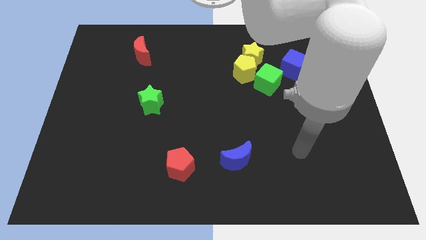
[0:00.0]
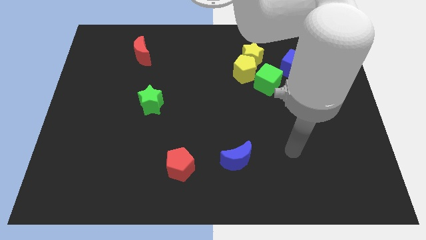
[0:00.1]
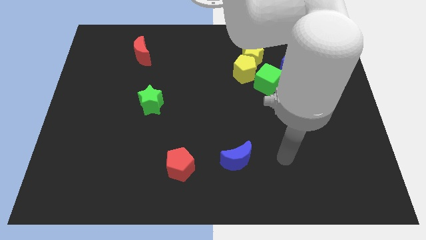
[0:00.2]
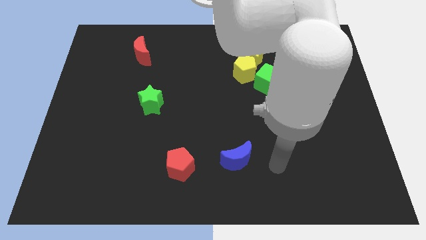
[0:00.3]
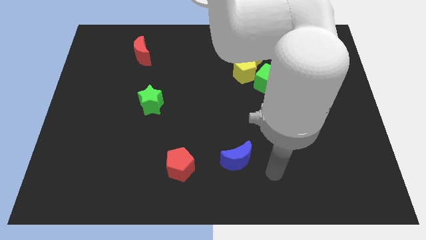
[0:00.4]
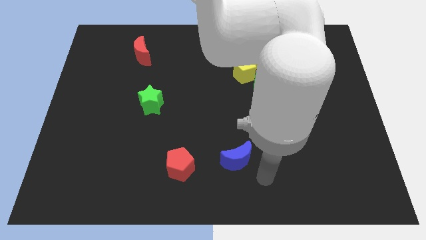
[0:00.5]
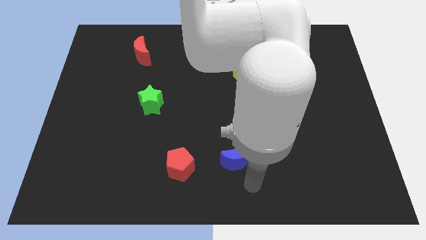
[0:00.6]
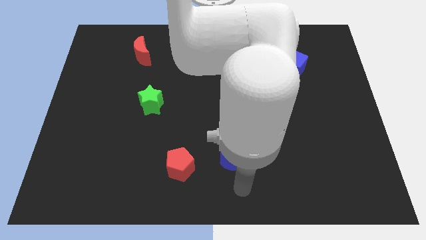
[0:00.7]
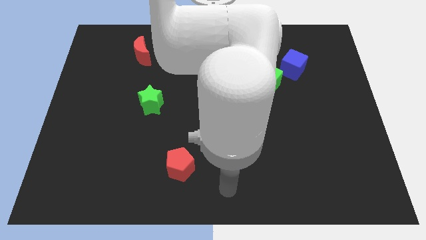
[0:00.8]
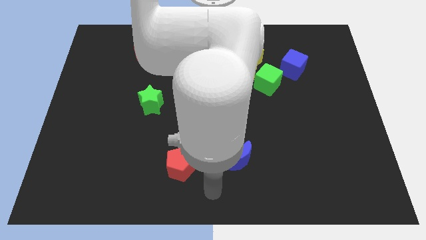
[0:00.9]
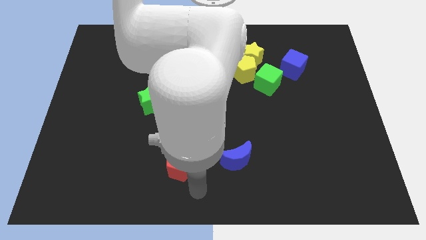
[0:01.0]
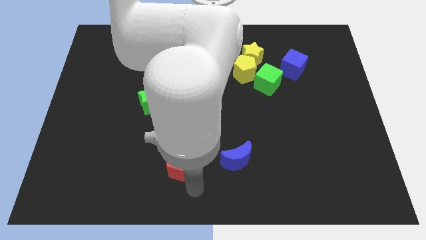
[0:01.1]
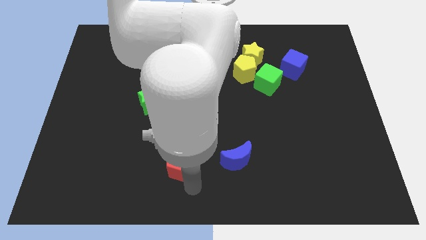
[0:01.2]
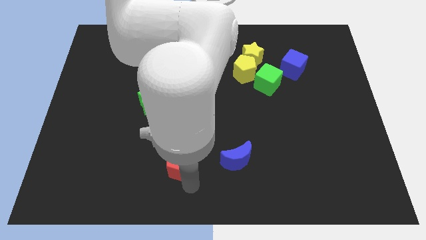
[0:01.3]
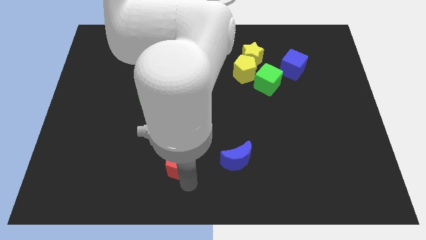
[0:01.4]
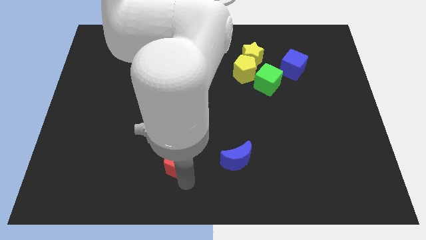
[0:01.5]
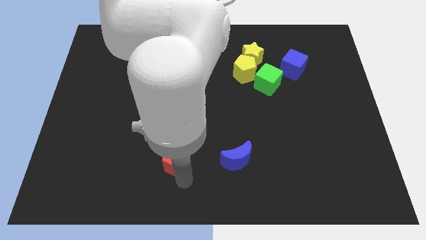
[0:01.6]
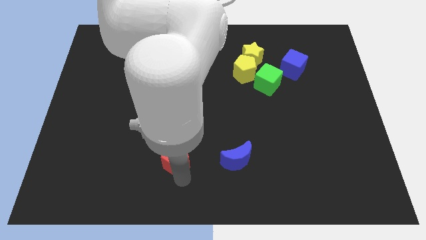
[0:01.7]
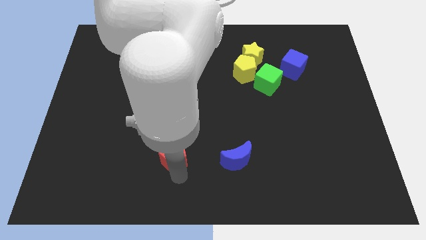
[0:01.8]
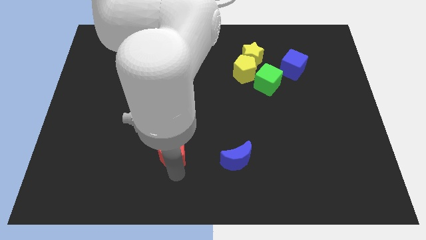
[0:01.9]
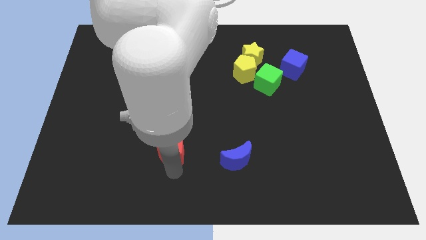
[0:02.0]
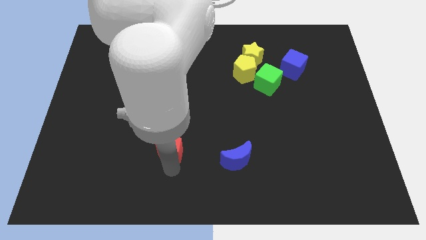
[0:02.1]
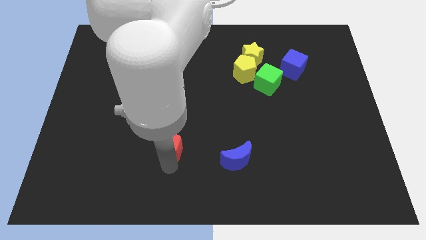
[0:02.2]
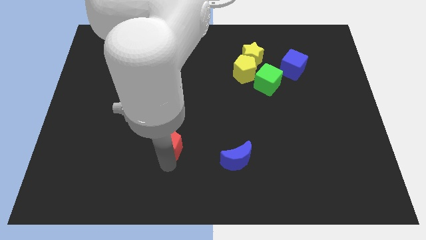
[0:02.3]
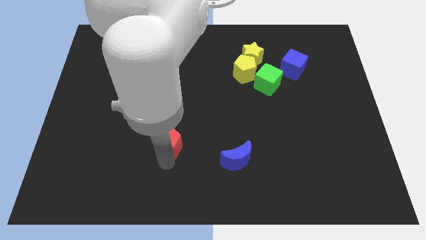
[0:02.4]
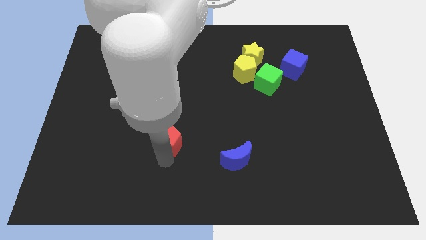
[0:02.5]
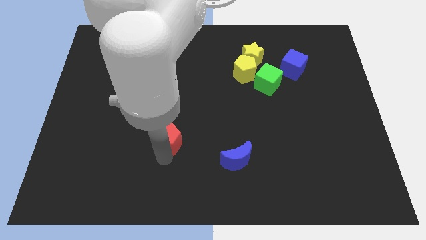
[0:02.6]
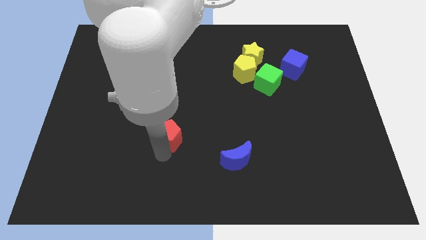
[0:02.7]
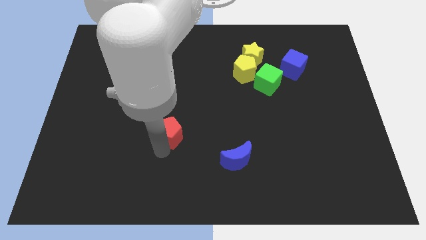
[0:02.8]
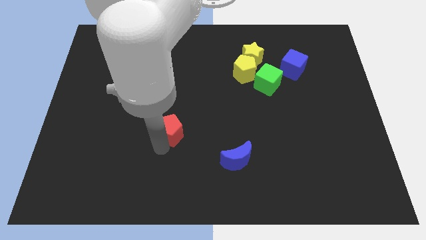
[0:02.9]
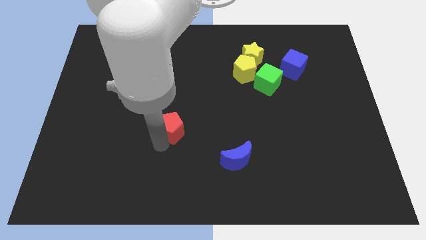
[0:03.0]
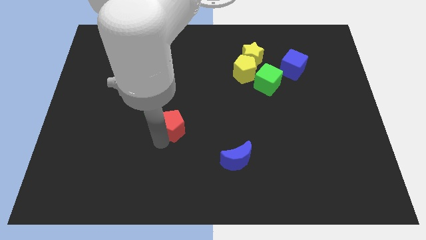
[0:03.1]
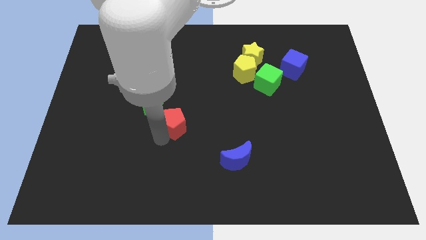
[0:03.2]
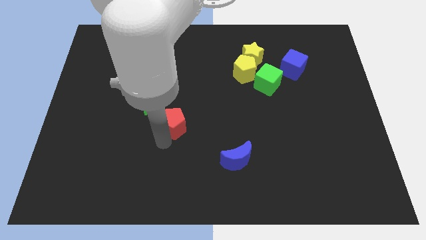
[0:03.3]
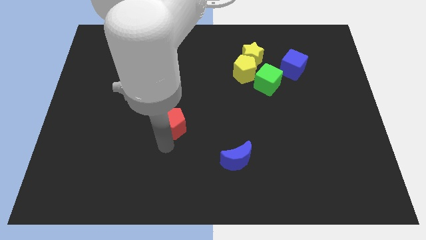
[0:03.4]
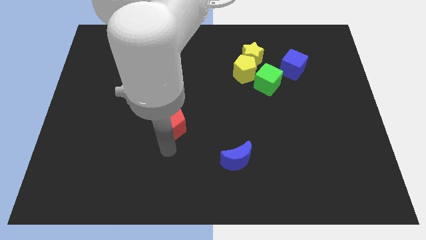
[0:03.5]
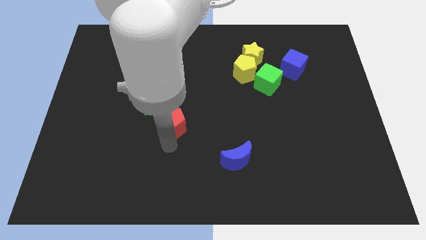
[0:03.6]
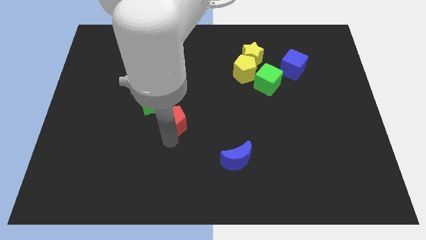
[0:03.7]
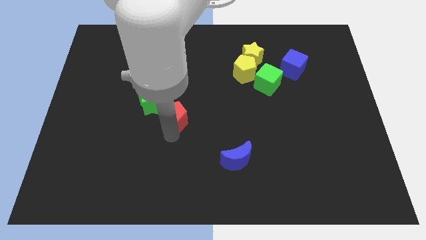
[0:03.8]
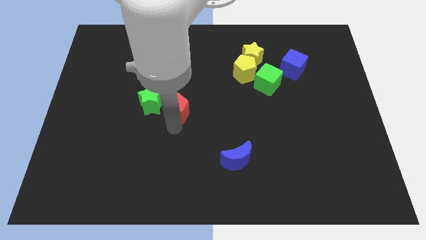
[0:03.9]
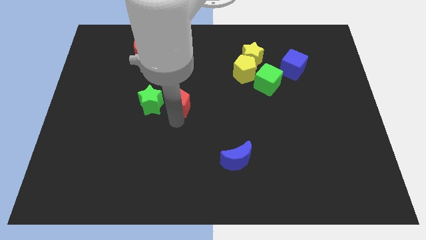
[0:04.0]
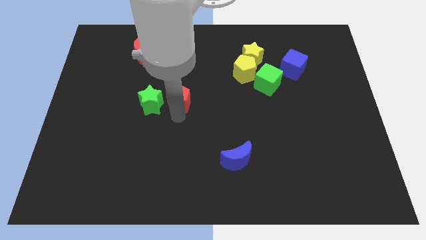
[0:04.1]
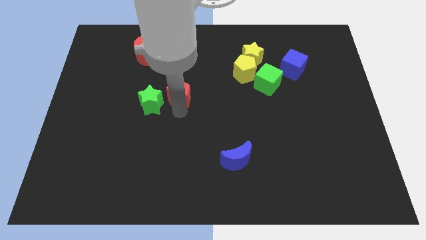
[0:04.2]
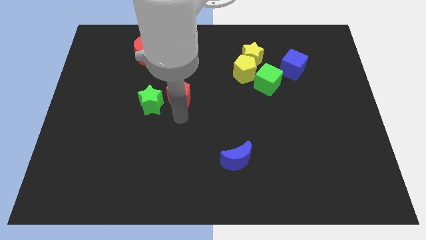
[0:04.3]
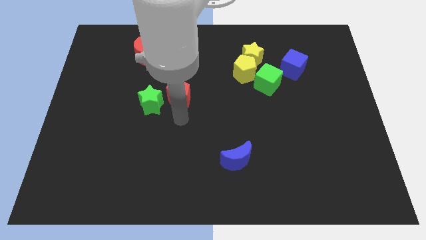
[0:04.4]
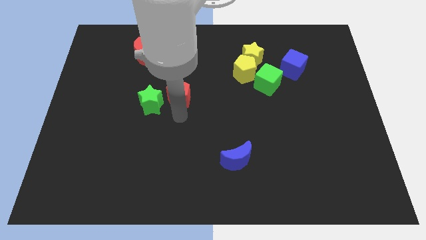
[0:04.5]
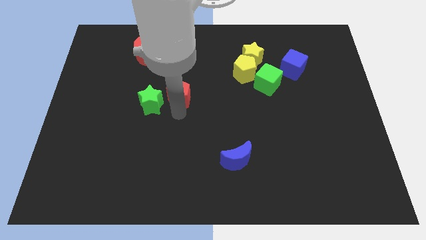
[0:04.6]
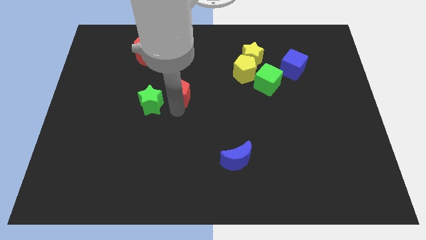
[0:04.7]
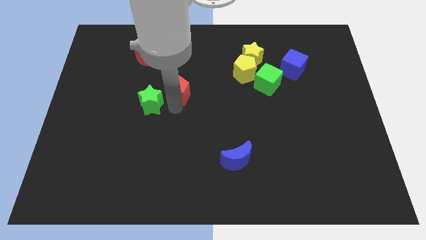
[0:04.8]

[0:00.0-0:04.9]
slide the red pentagon upwards

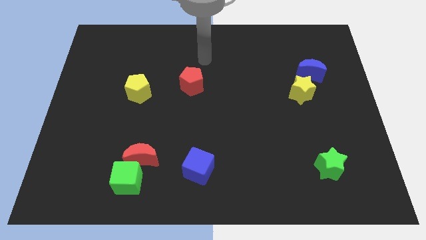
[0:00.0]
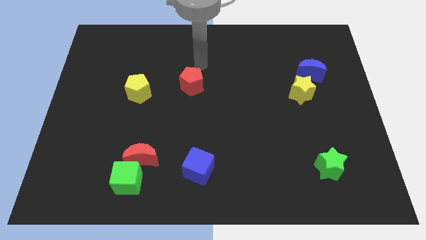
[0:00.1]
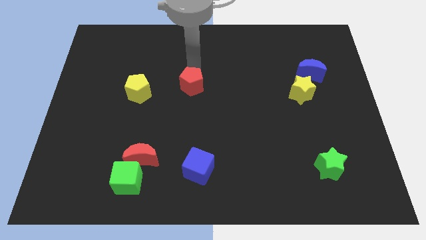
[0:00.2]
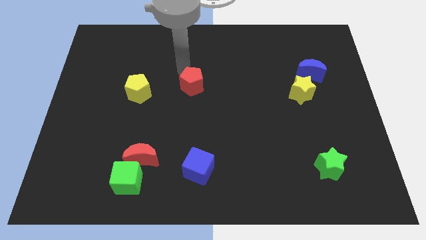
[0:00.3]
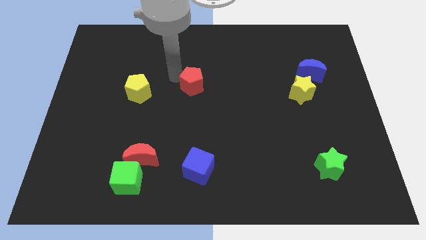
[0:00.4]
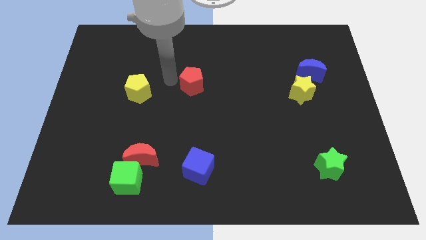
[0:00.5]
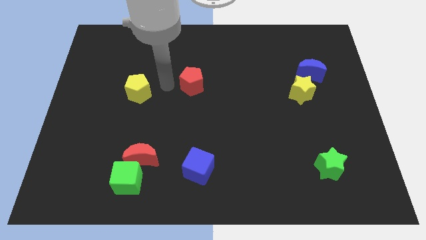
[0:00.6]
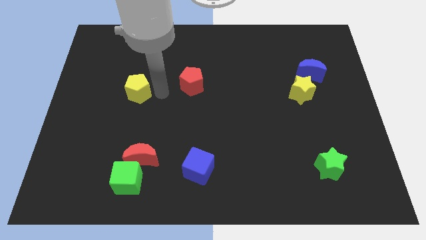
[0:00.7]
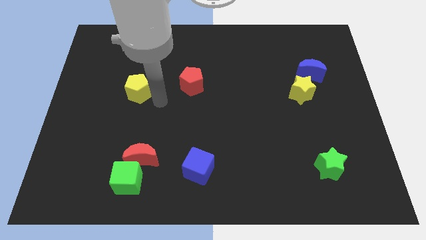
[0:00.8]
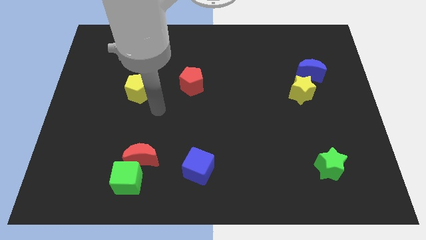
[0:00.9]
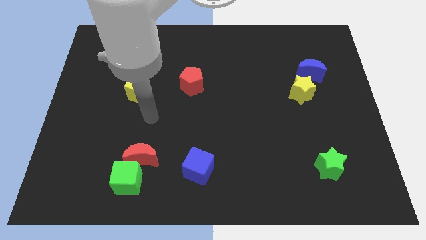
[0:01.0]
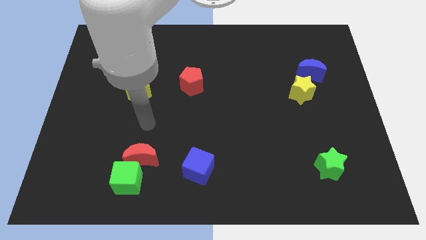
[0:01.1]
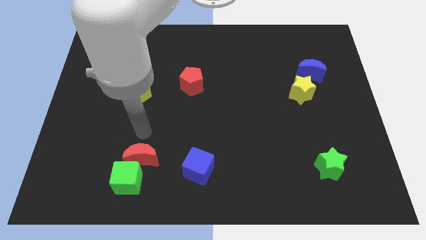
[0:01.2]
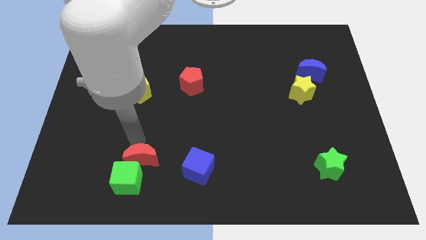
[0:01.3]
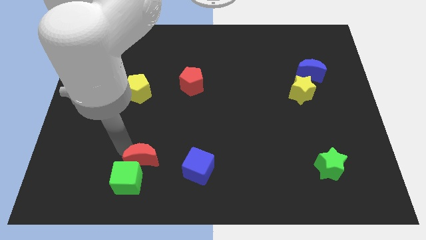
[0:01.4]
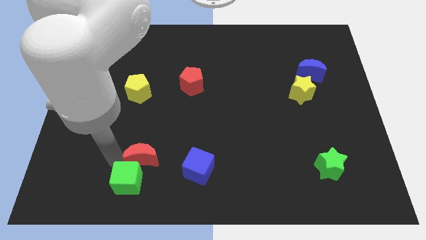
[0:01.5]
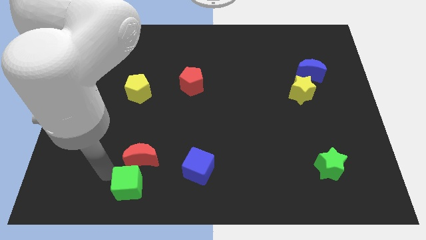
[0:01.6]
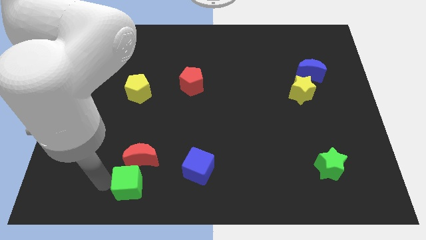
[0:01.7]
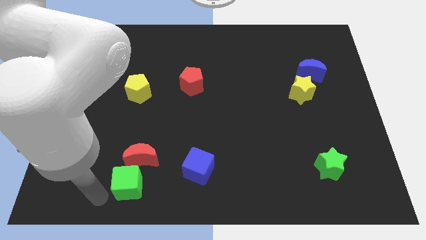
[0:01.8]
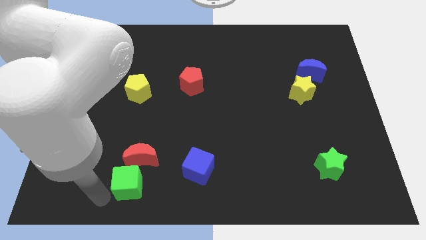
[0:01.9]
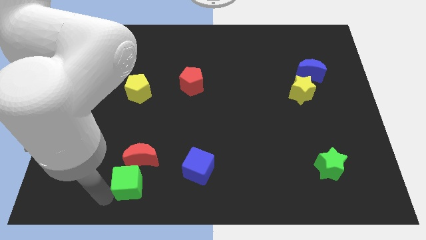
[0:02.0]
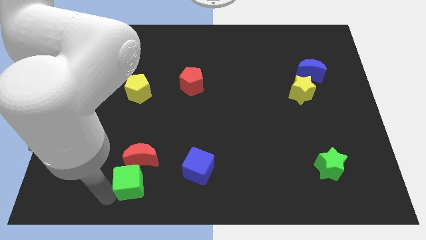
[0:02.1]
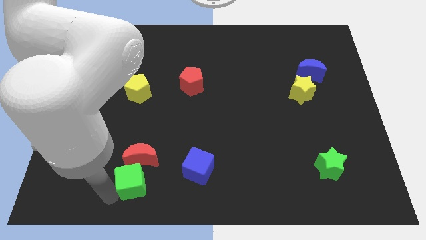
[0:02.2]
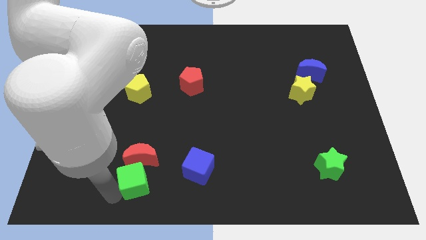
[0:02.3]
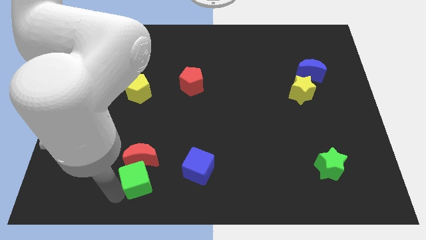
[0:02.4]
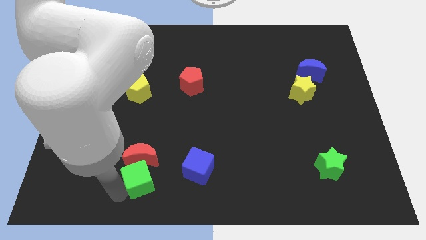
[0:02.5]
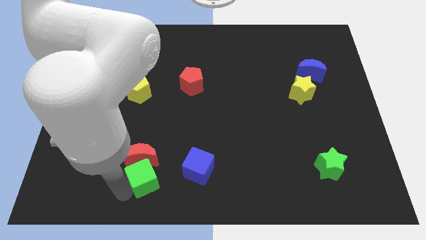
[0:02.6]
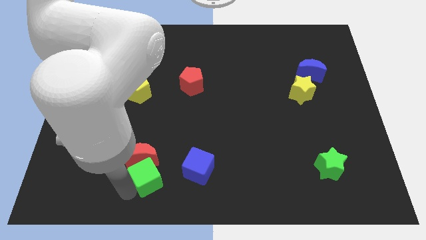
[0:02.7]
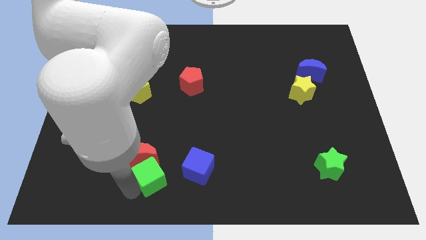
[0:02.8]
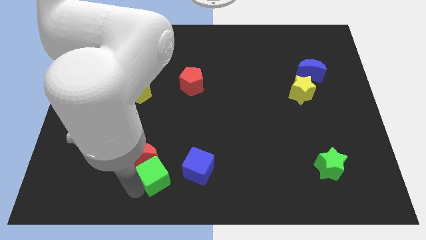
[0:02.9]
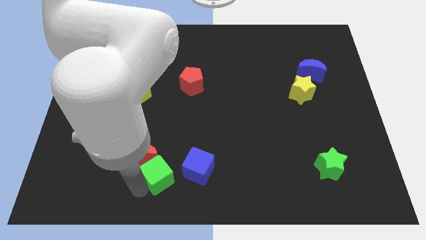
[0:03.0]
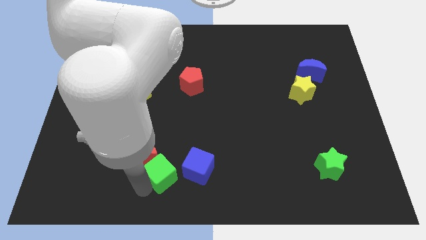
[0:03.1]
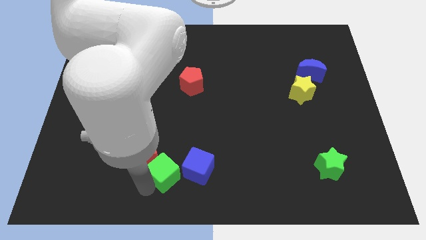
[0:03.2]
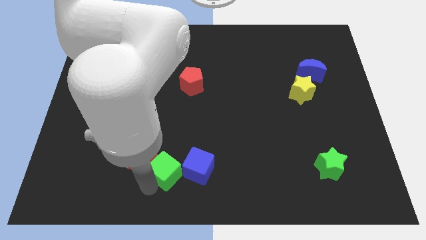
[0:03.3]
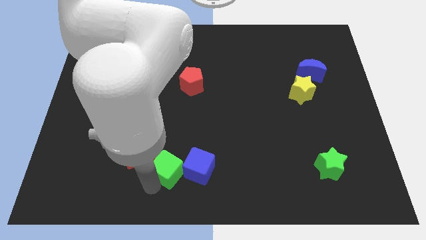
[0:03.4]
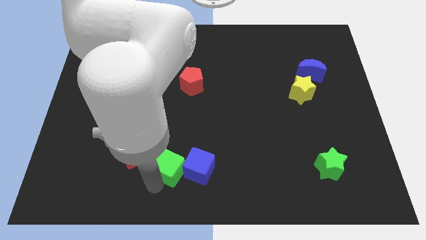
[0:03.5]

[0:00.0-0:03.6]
push the green cube a little bit upwards and to the right
